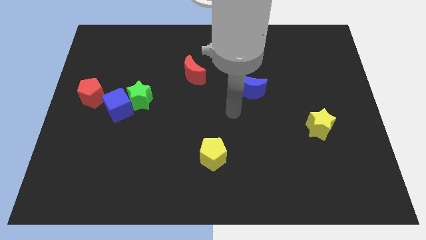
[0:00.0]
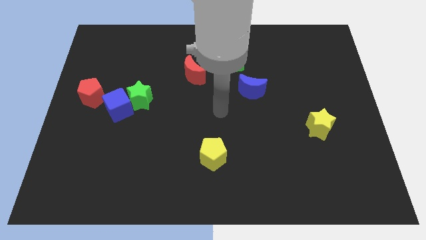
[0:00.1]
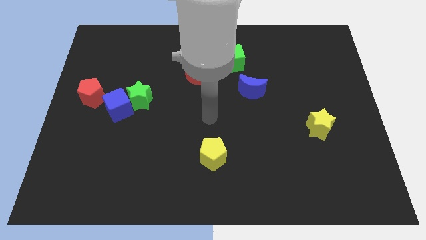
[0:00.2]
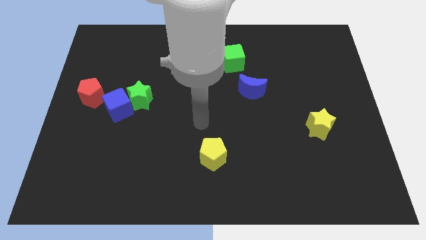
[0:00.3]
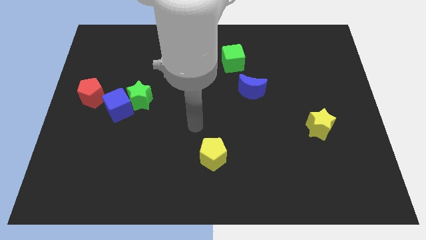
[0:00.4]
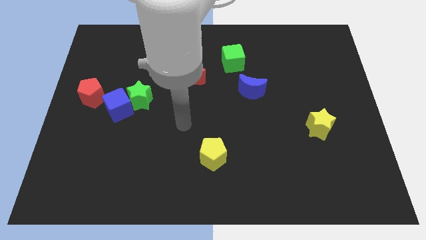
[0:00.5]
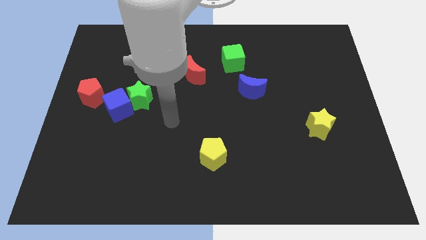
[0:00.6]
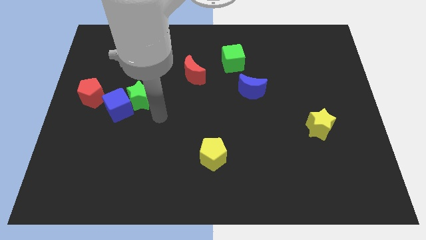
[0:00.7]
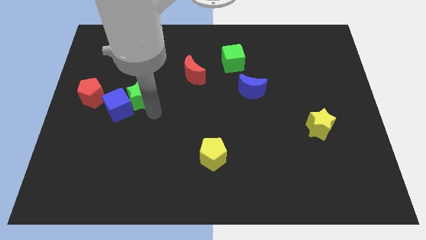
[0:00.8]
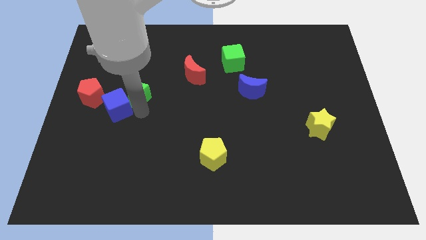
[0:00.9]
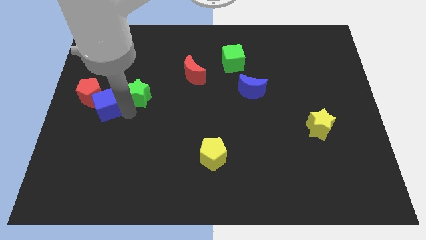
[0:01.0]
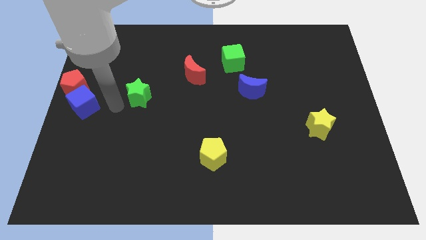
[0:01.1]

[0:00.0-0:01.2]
separate the green star from the blue cube

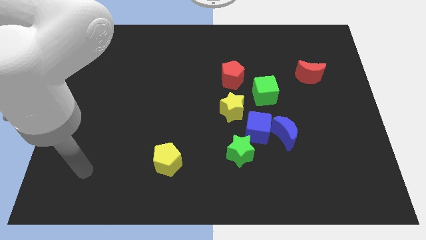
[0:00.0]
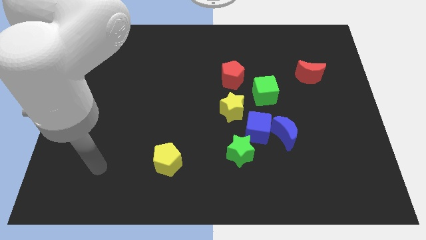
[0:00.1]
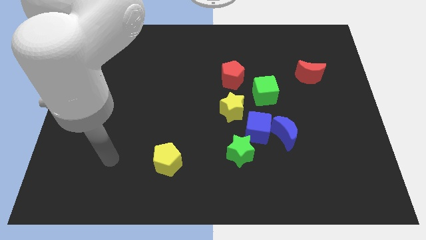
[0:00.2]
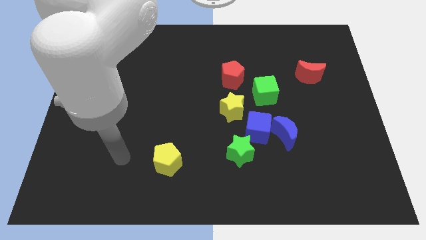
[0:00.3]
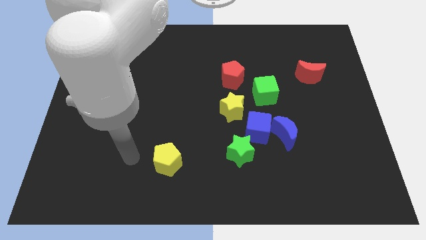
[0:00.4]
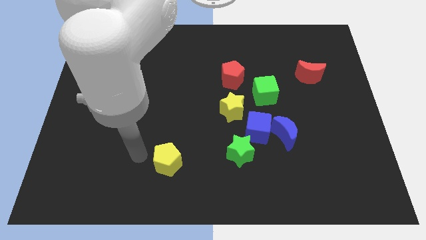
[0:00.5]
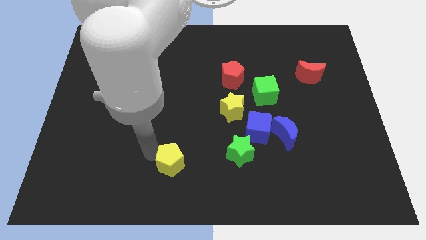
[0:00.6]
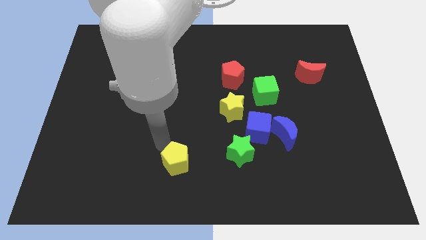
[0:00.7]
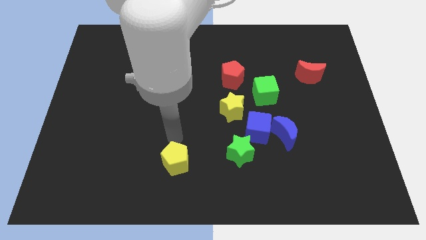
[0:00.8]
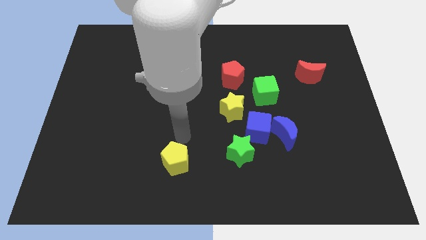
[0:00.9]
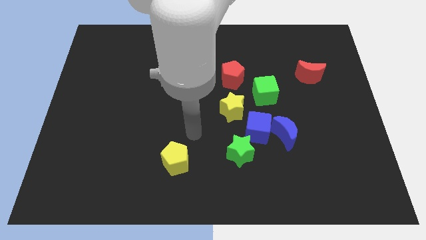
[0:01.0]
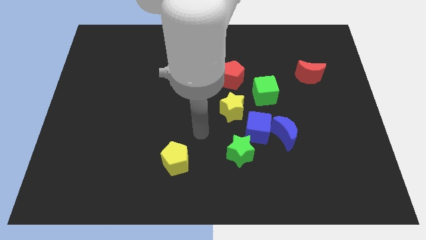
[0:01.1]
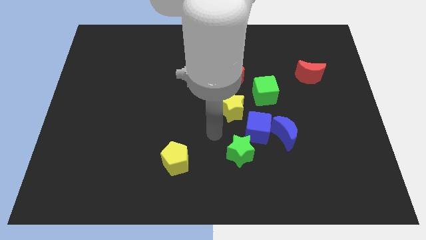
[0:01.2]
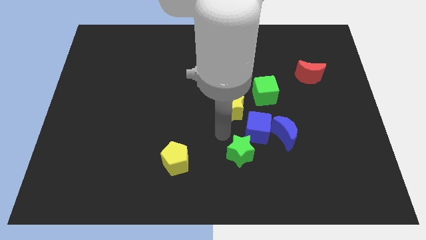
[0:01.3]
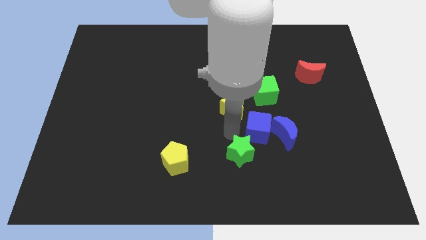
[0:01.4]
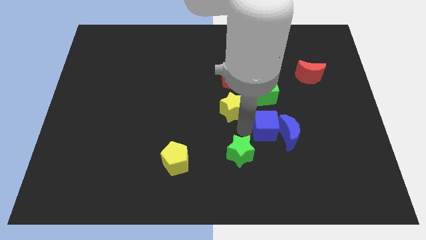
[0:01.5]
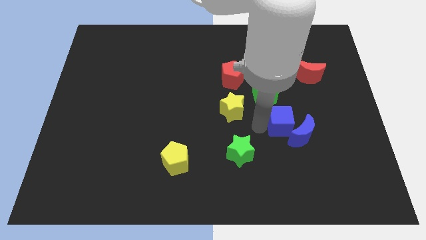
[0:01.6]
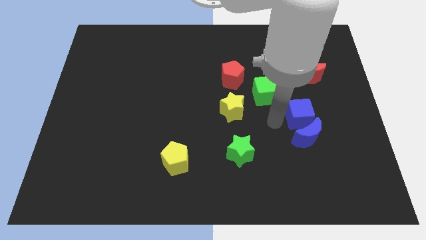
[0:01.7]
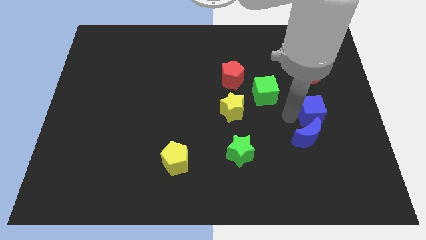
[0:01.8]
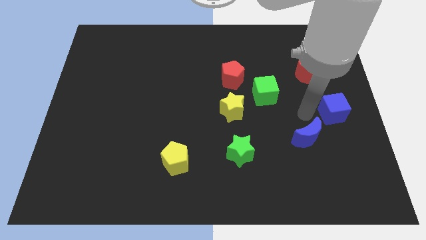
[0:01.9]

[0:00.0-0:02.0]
separate the blue moon from the blue cube

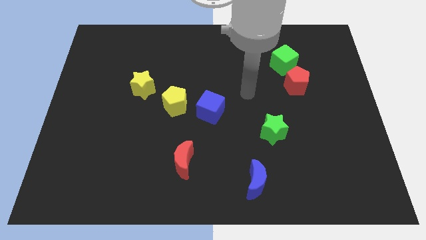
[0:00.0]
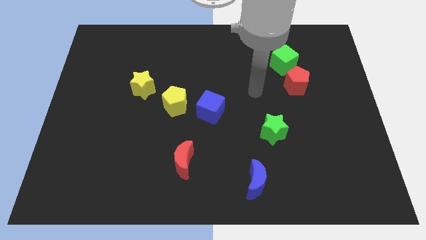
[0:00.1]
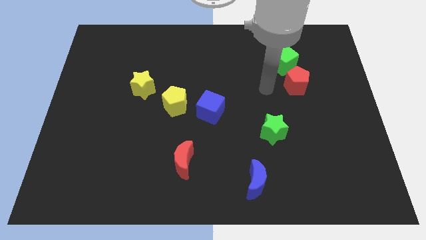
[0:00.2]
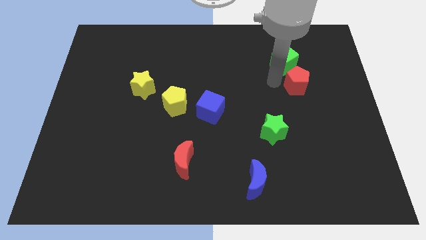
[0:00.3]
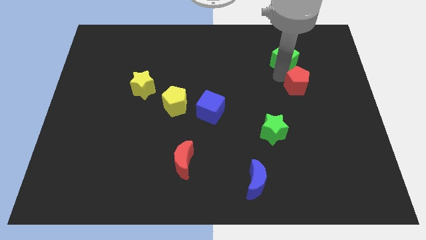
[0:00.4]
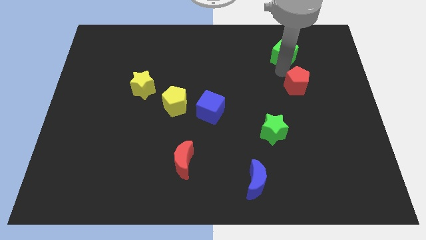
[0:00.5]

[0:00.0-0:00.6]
move the red pentagon away from the green cube

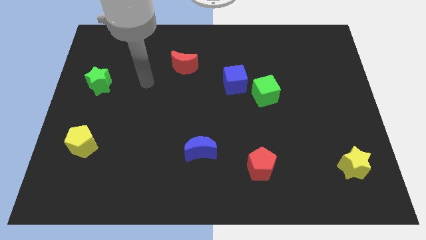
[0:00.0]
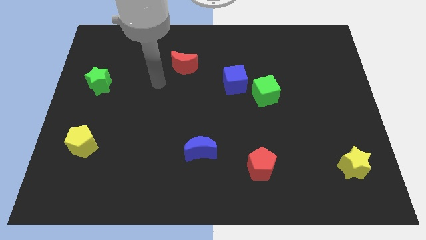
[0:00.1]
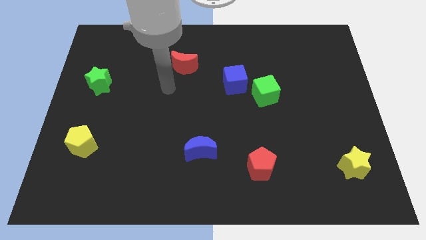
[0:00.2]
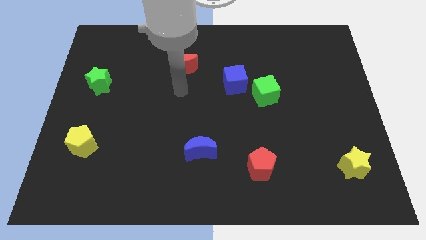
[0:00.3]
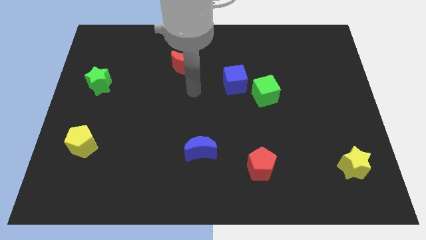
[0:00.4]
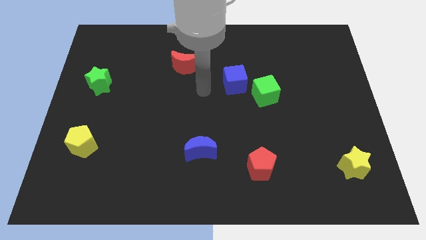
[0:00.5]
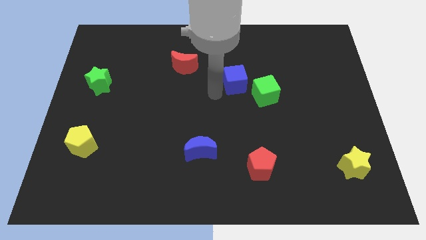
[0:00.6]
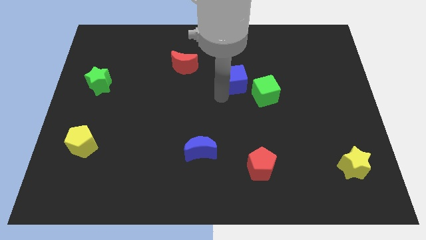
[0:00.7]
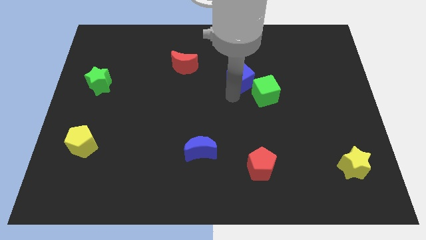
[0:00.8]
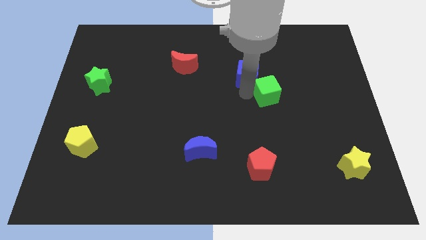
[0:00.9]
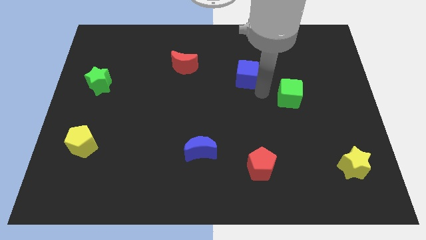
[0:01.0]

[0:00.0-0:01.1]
pull the blue cube apart from the green cube

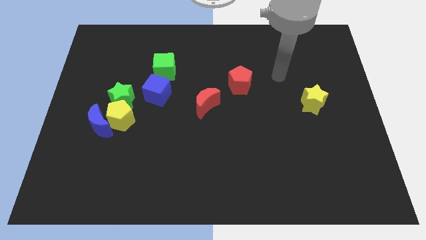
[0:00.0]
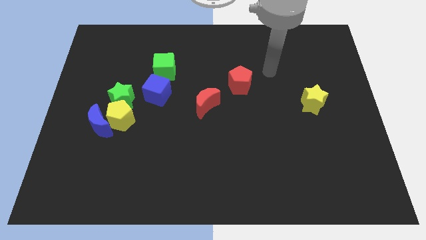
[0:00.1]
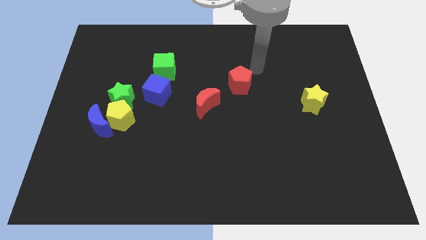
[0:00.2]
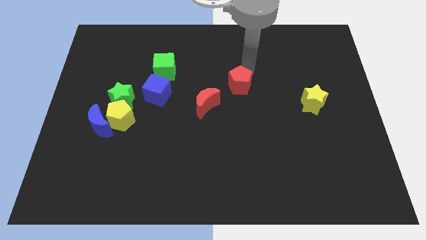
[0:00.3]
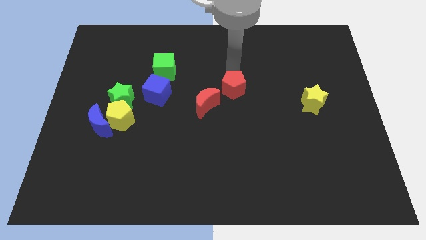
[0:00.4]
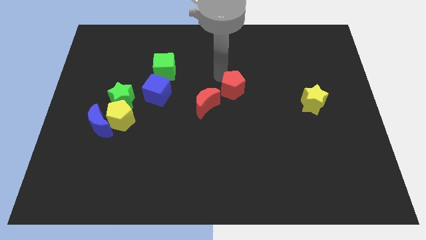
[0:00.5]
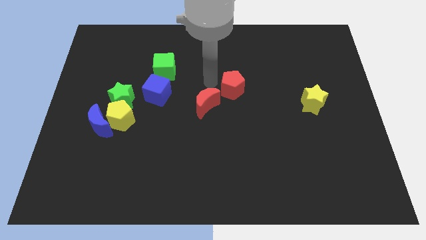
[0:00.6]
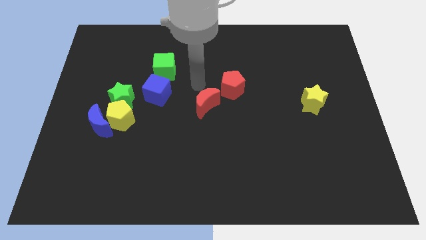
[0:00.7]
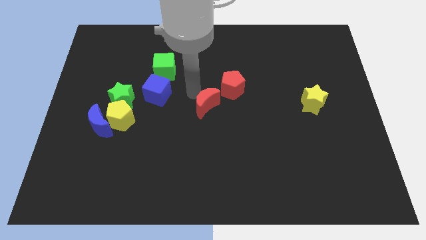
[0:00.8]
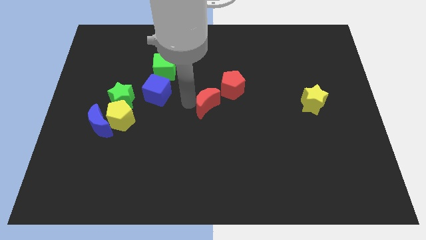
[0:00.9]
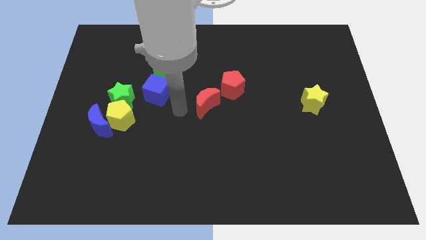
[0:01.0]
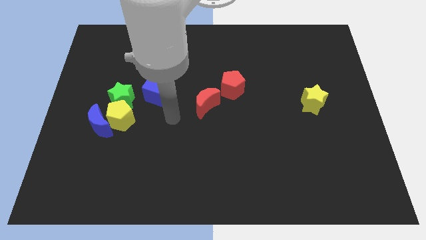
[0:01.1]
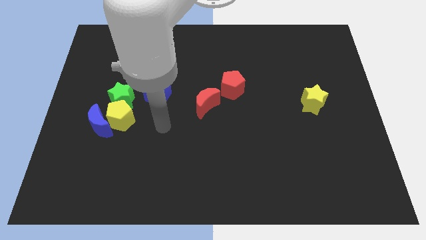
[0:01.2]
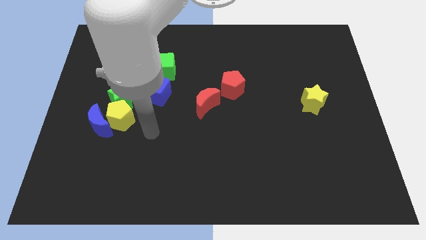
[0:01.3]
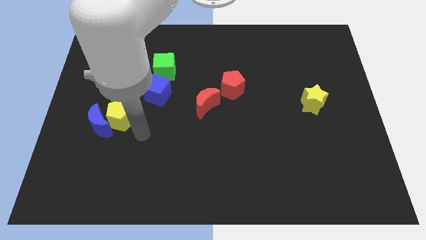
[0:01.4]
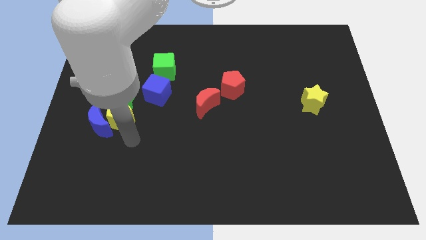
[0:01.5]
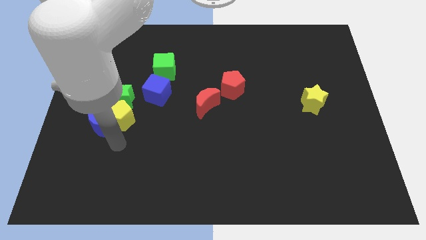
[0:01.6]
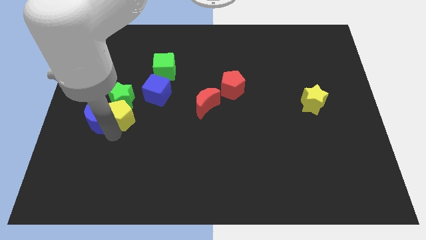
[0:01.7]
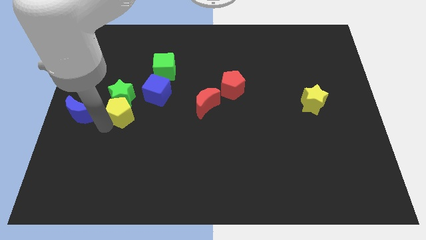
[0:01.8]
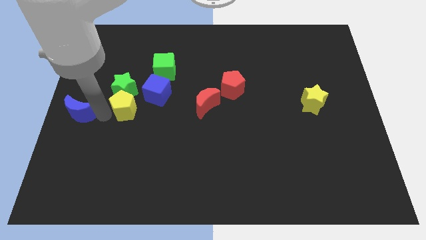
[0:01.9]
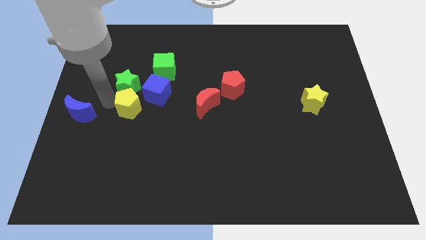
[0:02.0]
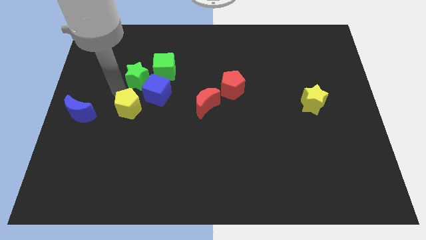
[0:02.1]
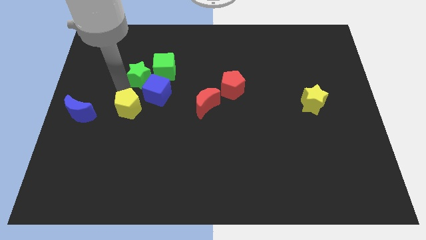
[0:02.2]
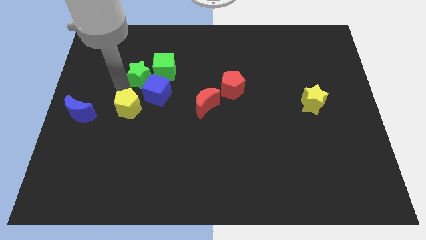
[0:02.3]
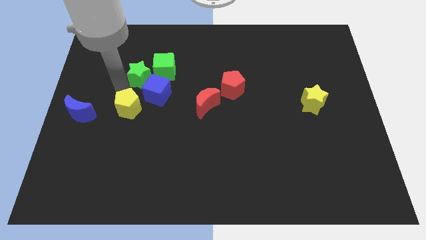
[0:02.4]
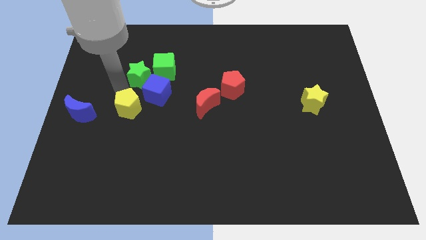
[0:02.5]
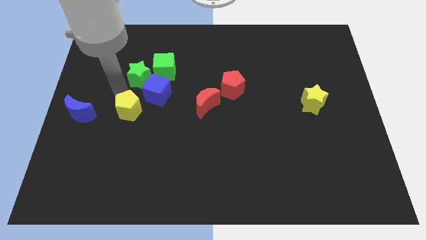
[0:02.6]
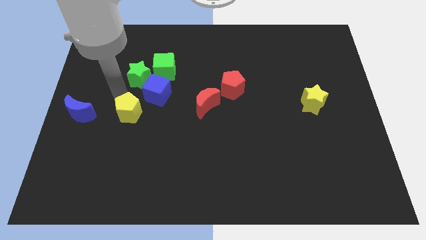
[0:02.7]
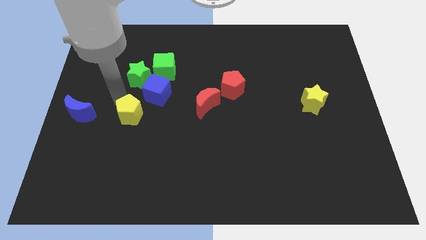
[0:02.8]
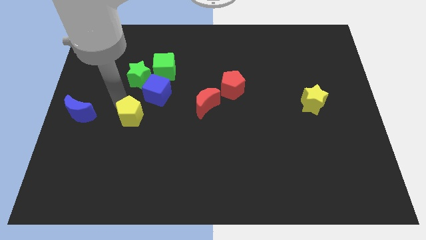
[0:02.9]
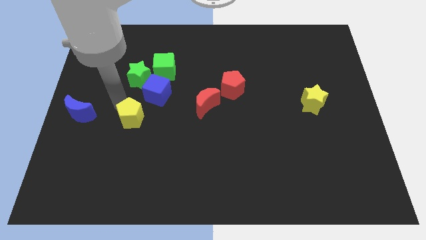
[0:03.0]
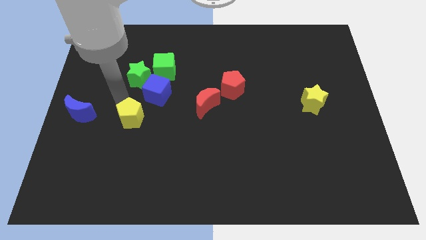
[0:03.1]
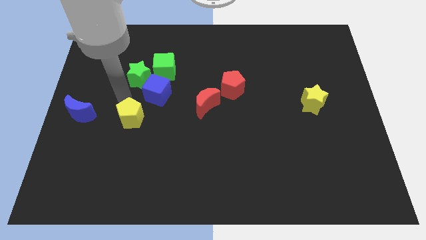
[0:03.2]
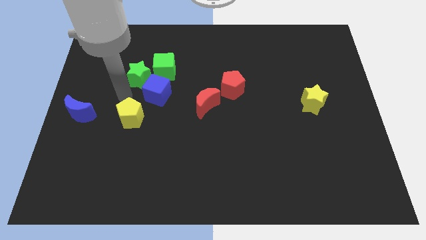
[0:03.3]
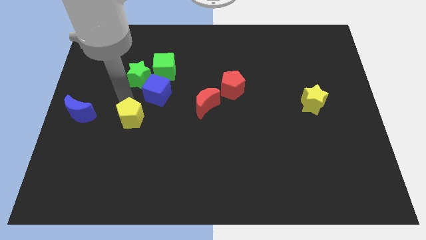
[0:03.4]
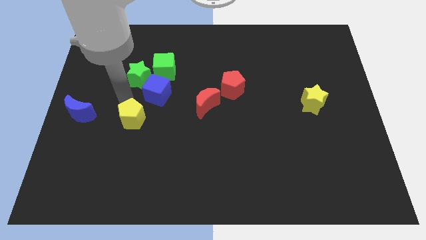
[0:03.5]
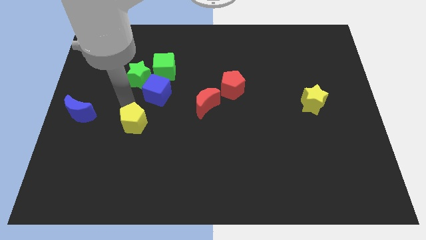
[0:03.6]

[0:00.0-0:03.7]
separate the yellow pentagon from the blue moon and green star

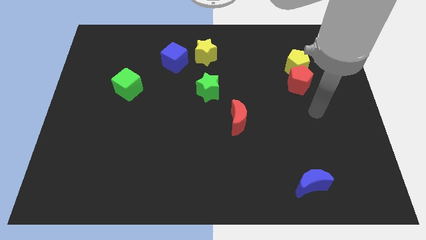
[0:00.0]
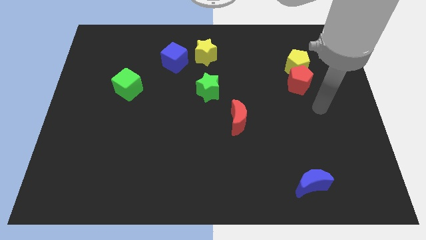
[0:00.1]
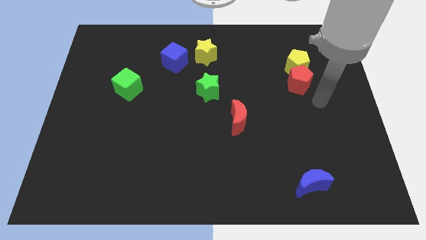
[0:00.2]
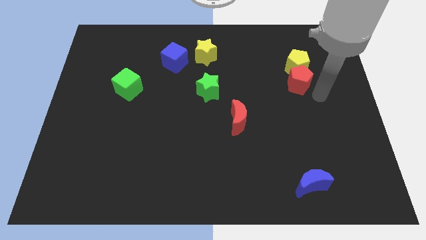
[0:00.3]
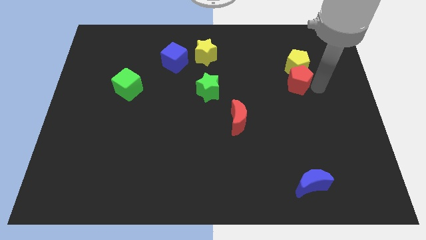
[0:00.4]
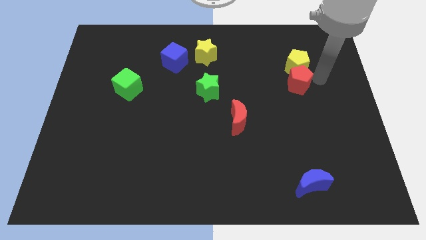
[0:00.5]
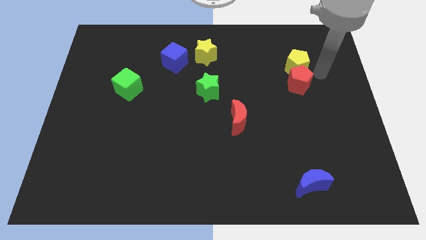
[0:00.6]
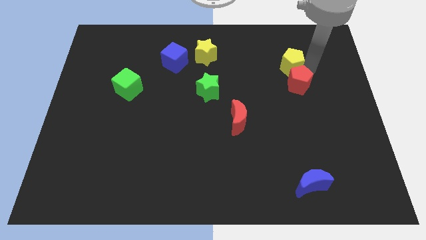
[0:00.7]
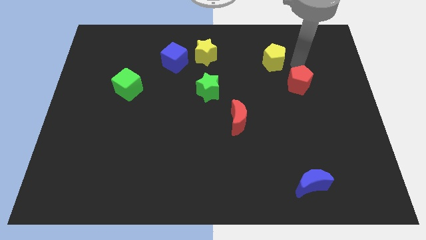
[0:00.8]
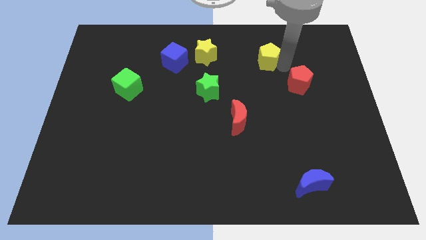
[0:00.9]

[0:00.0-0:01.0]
pull the red pentagon apart from the yellow pentagon
